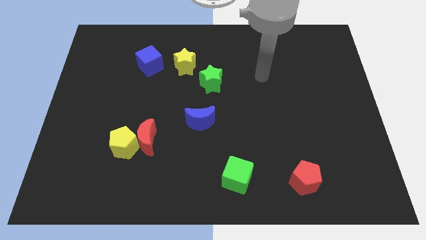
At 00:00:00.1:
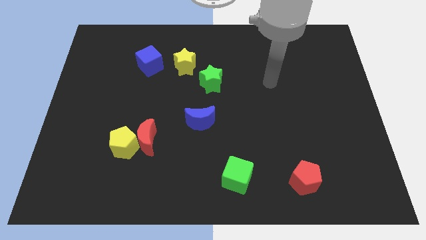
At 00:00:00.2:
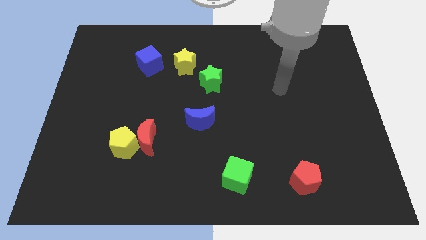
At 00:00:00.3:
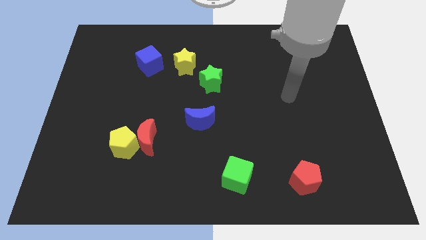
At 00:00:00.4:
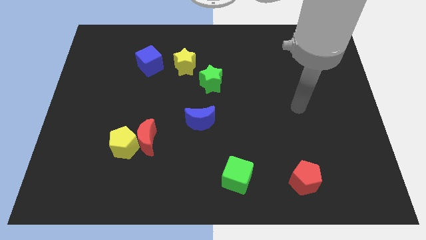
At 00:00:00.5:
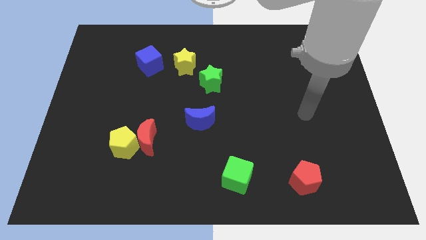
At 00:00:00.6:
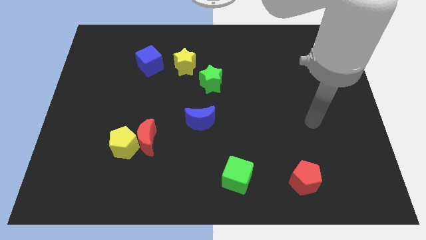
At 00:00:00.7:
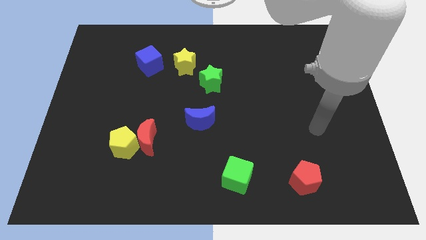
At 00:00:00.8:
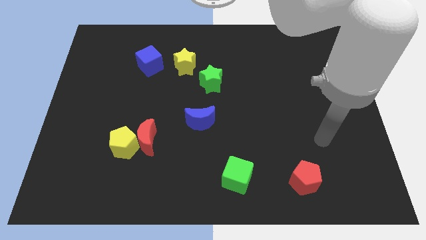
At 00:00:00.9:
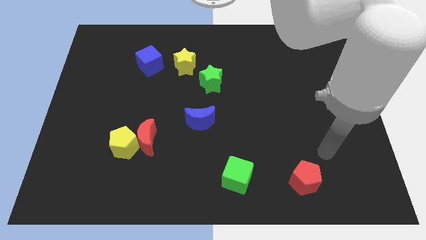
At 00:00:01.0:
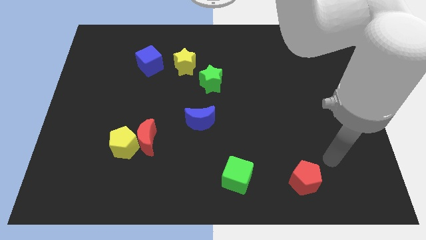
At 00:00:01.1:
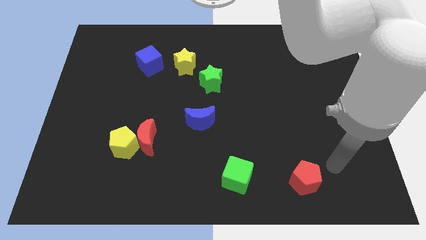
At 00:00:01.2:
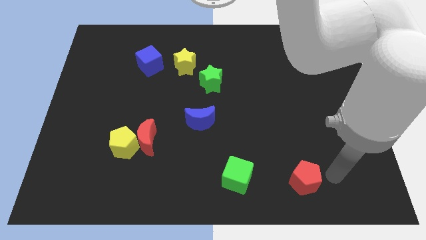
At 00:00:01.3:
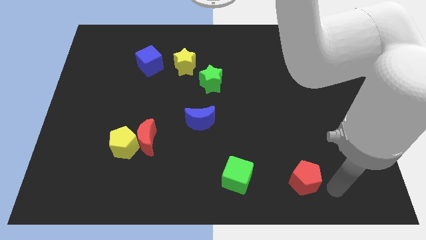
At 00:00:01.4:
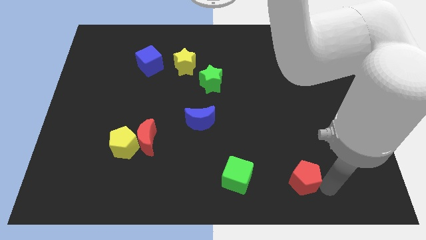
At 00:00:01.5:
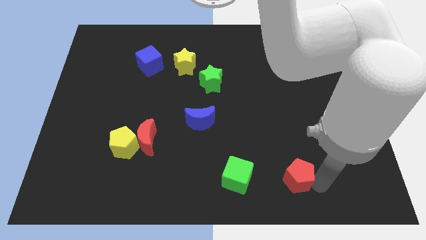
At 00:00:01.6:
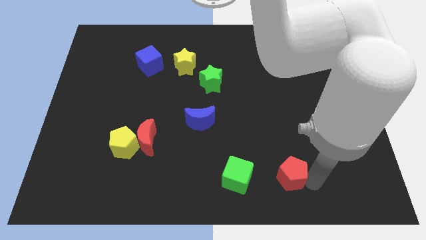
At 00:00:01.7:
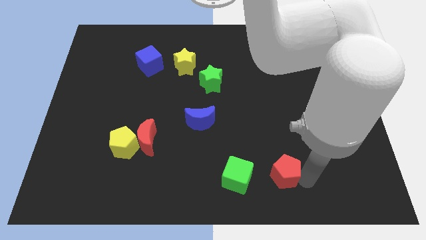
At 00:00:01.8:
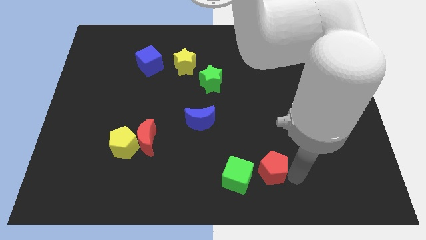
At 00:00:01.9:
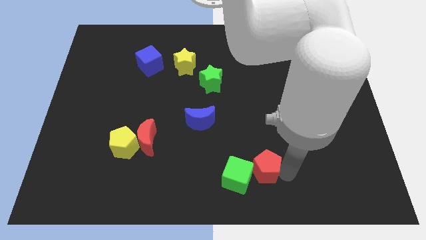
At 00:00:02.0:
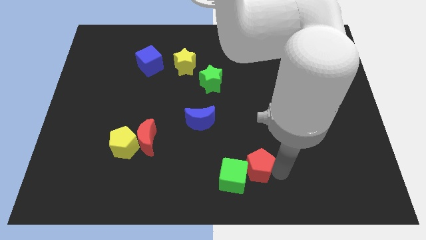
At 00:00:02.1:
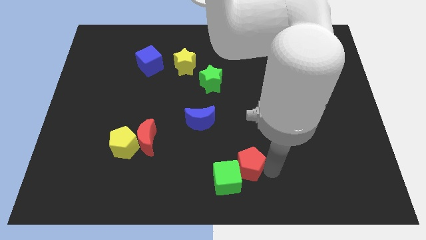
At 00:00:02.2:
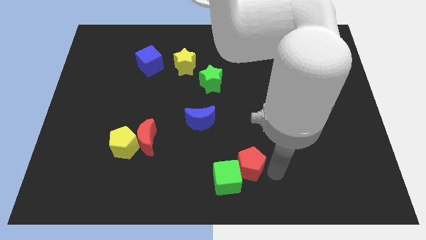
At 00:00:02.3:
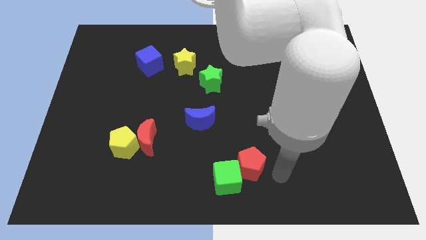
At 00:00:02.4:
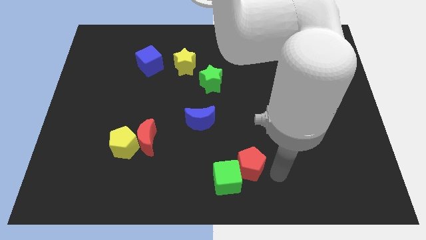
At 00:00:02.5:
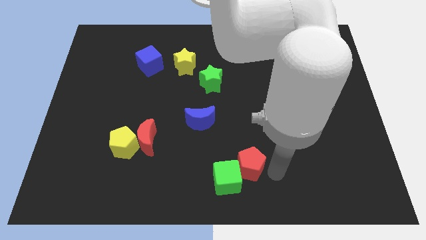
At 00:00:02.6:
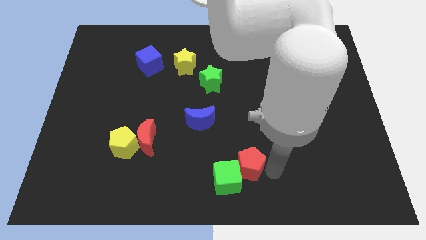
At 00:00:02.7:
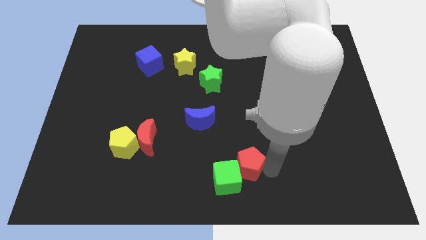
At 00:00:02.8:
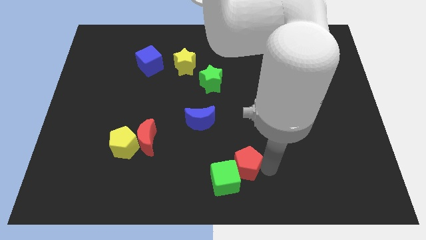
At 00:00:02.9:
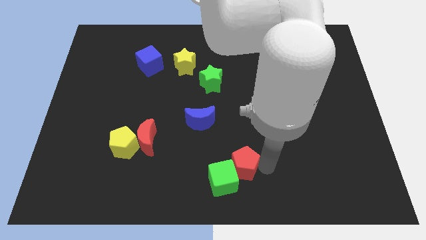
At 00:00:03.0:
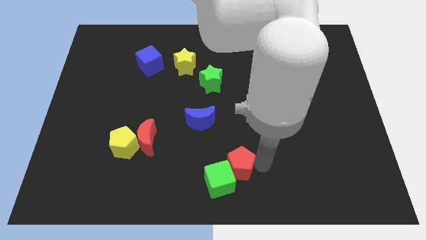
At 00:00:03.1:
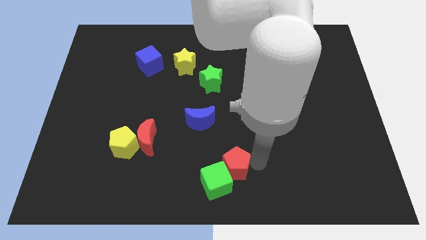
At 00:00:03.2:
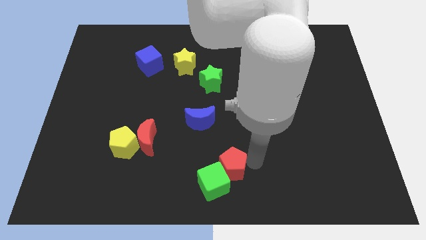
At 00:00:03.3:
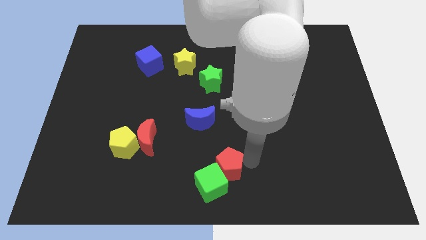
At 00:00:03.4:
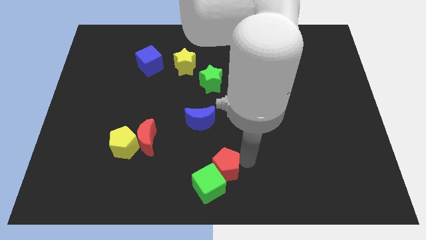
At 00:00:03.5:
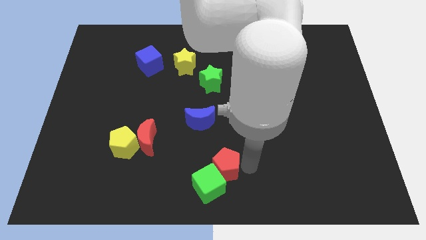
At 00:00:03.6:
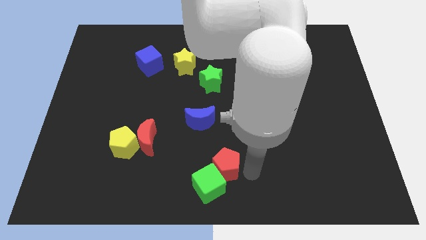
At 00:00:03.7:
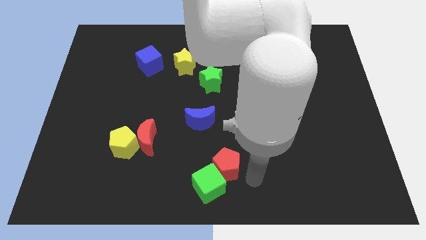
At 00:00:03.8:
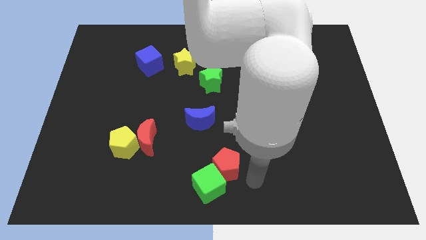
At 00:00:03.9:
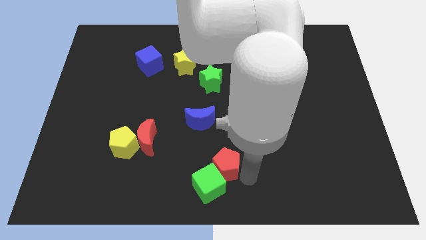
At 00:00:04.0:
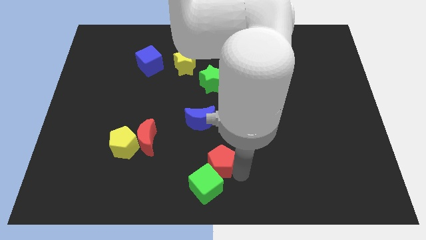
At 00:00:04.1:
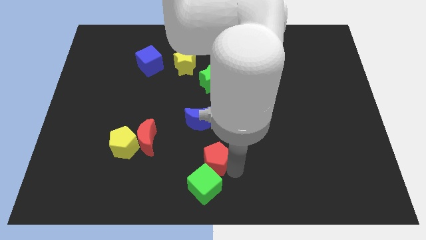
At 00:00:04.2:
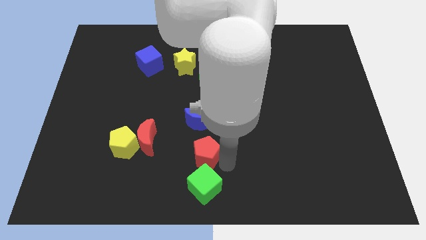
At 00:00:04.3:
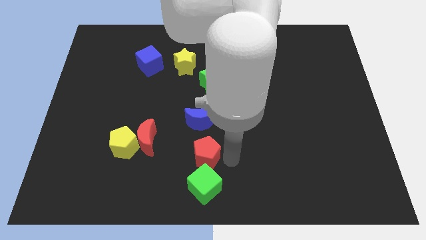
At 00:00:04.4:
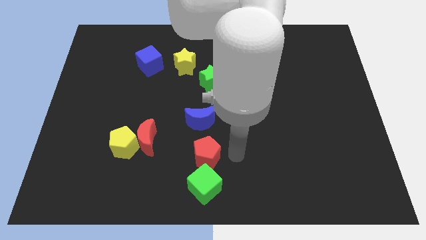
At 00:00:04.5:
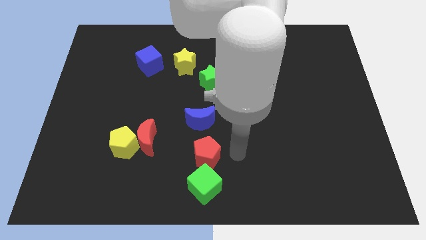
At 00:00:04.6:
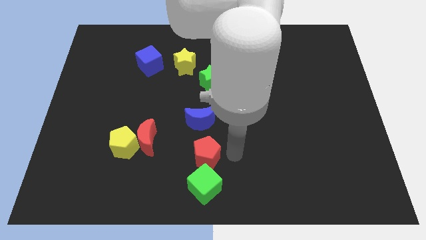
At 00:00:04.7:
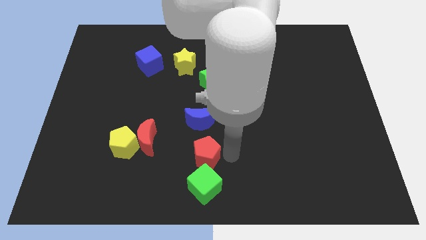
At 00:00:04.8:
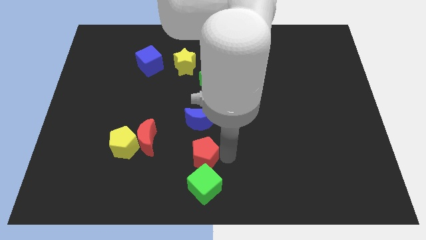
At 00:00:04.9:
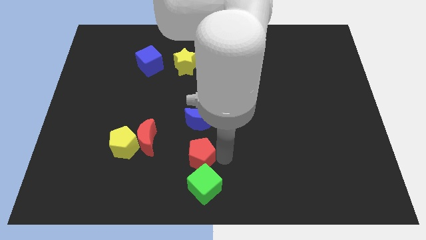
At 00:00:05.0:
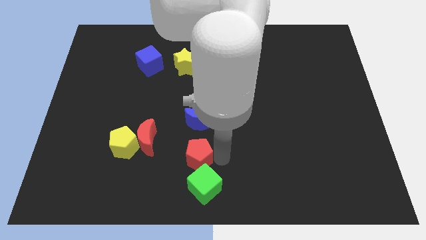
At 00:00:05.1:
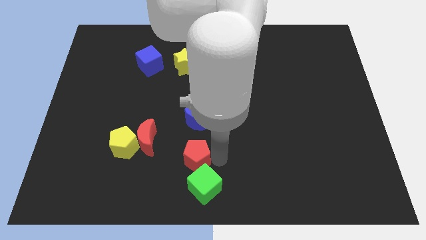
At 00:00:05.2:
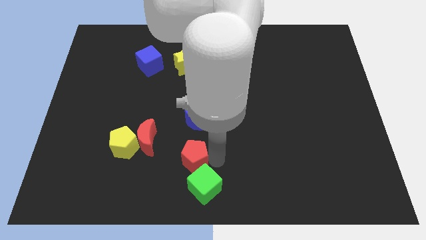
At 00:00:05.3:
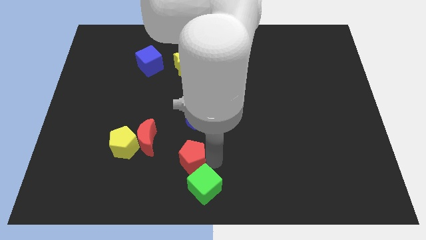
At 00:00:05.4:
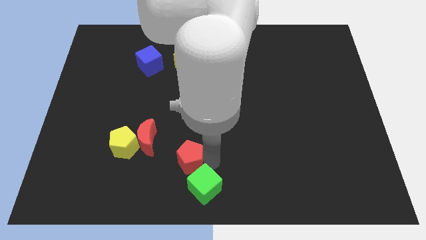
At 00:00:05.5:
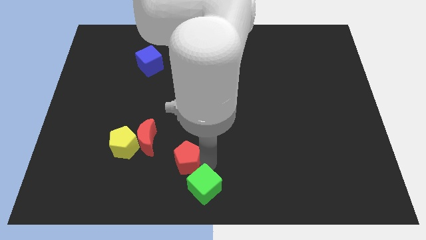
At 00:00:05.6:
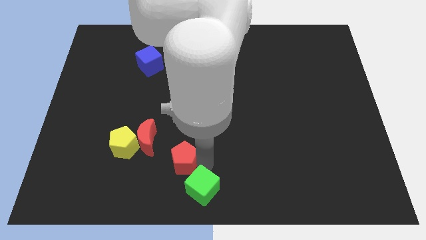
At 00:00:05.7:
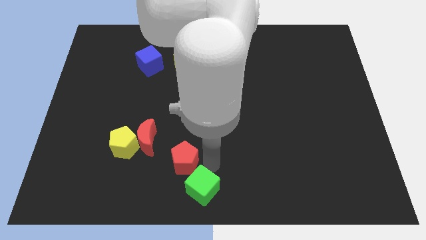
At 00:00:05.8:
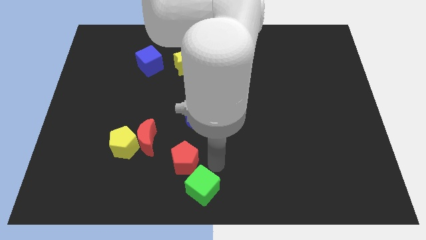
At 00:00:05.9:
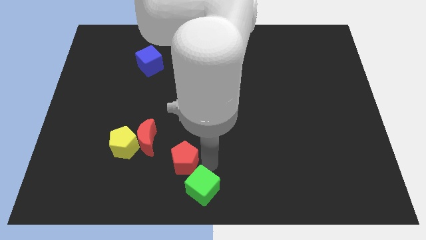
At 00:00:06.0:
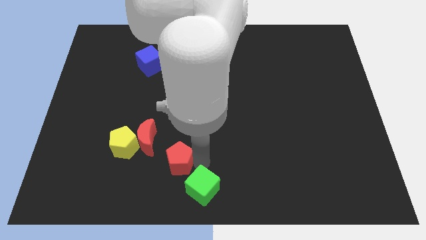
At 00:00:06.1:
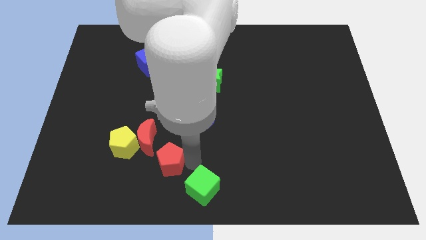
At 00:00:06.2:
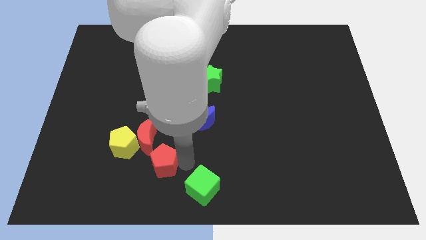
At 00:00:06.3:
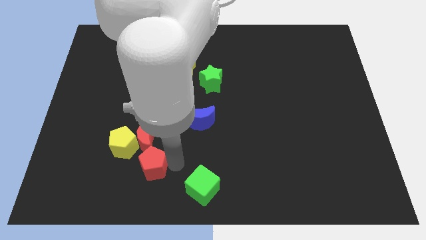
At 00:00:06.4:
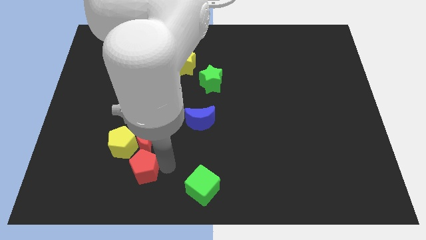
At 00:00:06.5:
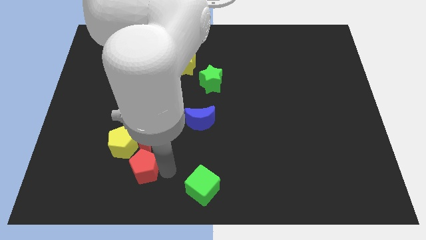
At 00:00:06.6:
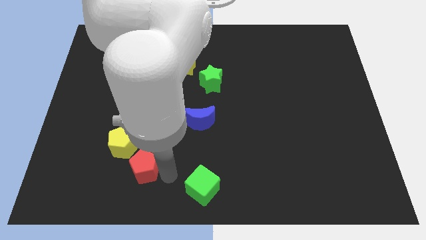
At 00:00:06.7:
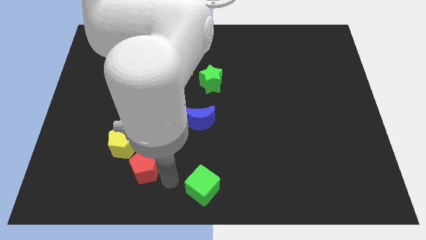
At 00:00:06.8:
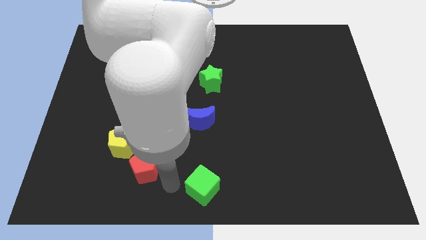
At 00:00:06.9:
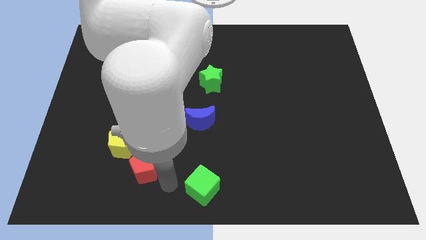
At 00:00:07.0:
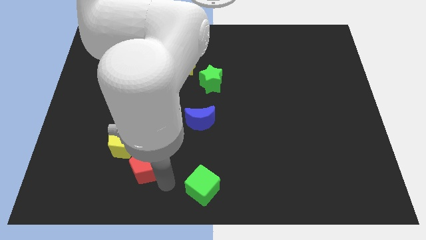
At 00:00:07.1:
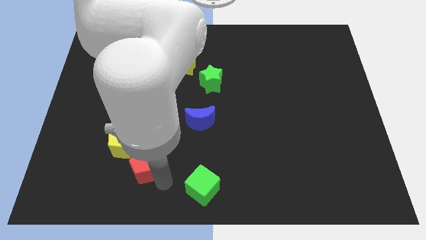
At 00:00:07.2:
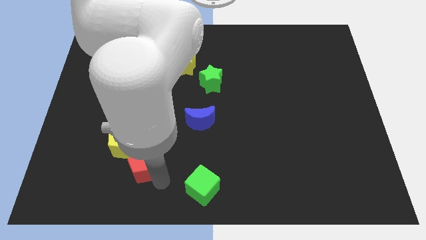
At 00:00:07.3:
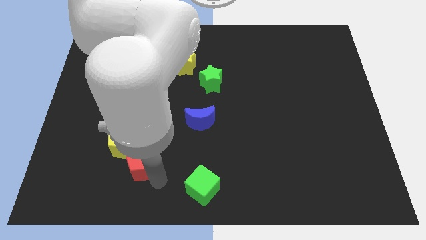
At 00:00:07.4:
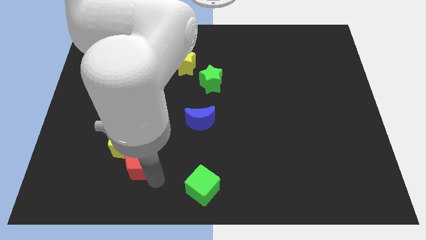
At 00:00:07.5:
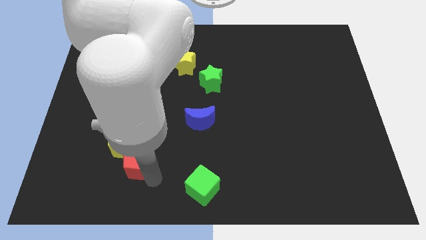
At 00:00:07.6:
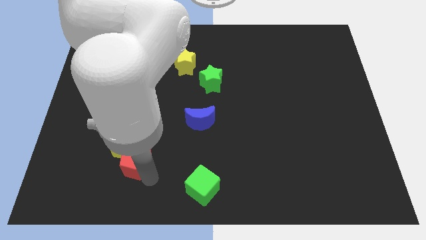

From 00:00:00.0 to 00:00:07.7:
slide the red pentagon close to the yellow pentagon
